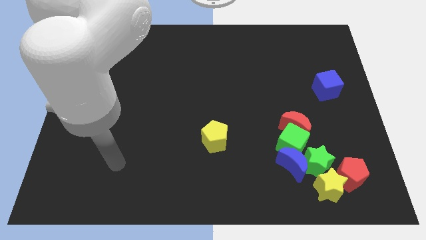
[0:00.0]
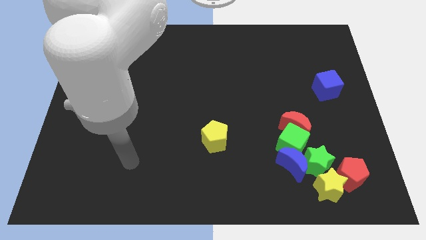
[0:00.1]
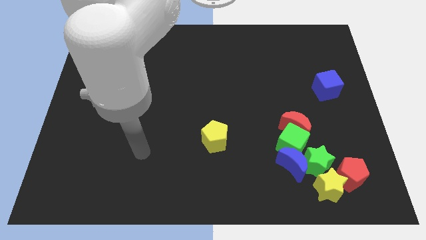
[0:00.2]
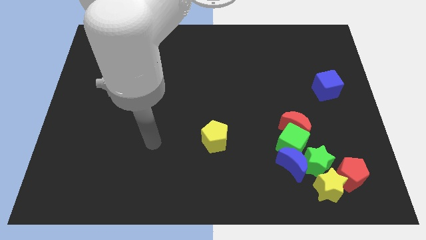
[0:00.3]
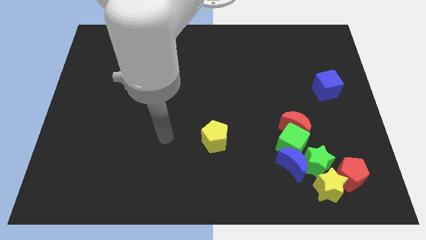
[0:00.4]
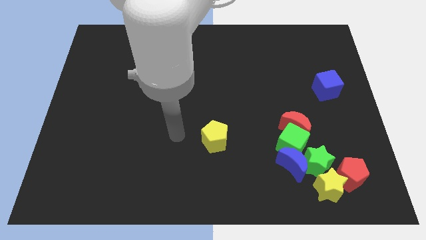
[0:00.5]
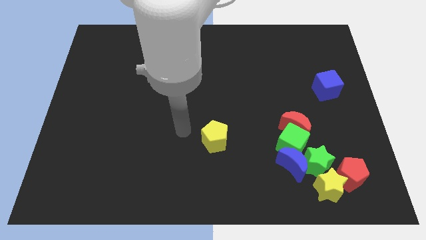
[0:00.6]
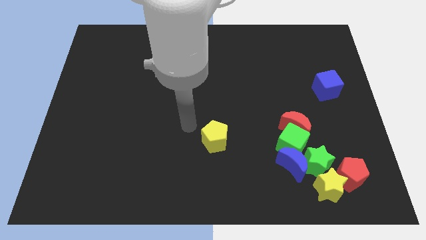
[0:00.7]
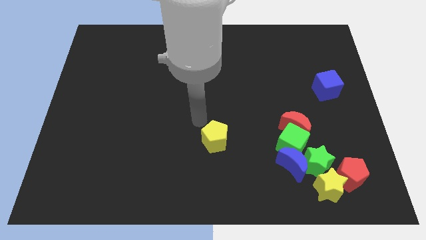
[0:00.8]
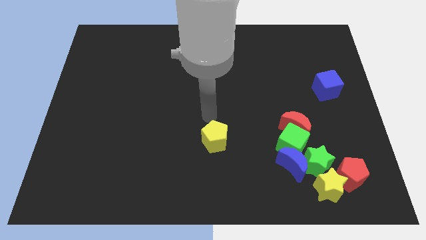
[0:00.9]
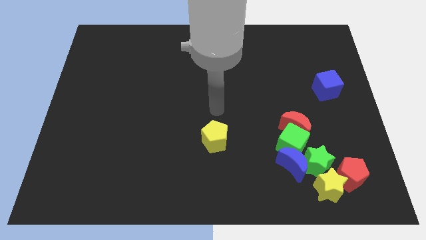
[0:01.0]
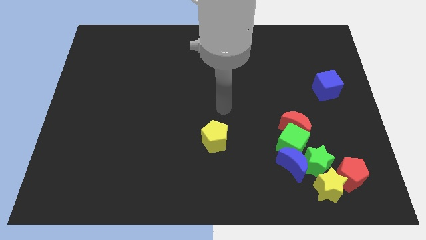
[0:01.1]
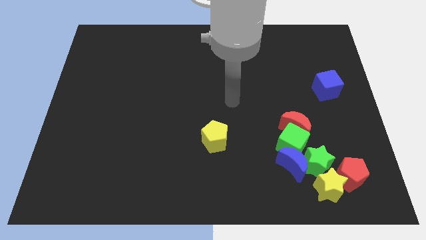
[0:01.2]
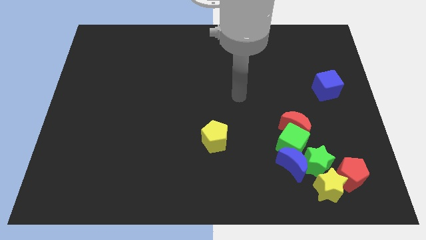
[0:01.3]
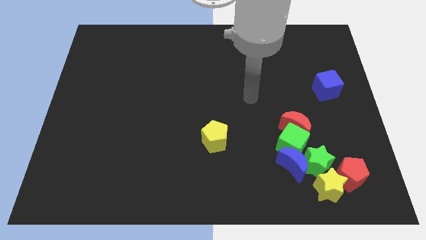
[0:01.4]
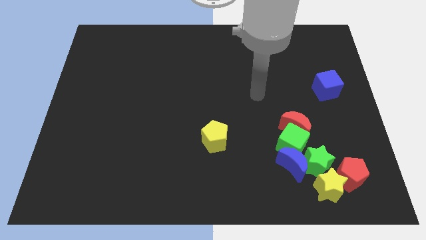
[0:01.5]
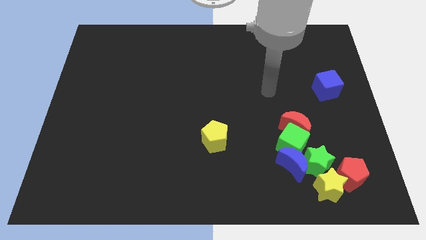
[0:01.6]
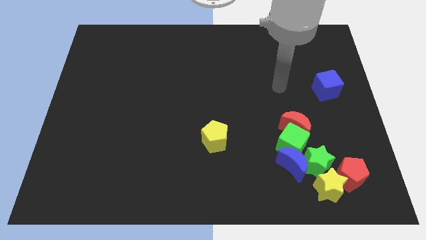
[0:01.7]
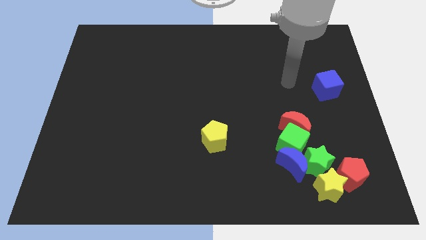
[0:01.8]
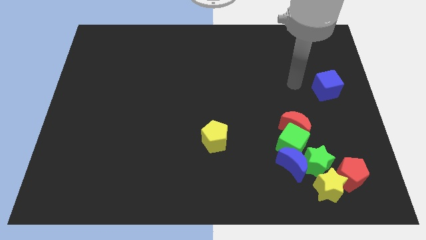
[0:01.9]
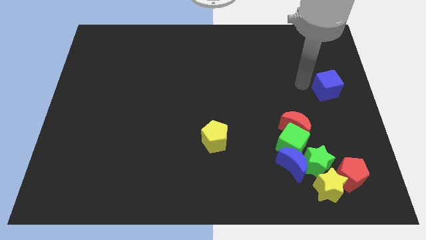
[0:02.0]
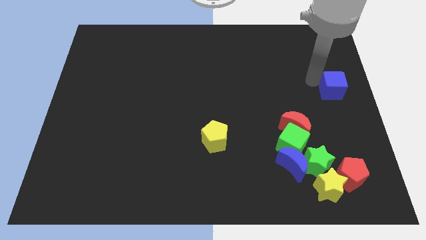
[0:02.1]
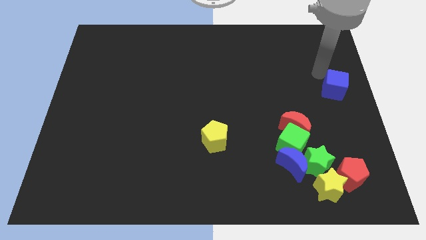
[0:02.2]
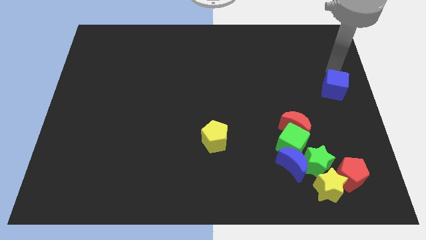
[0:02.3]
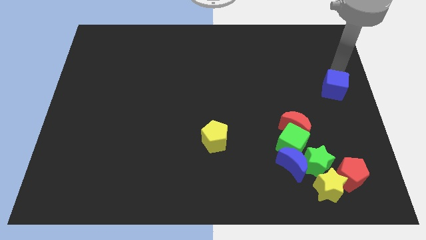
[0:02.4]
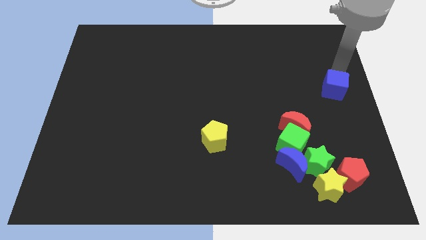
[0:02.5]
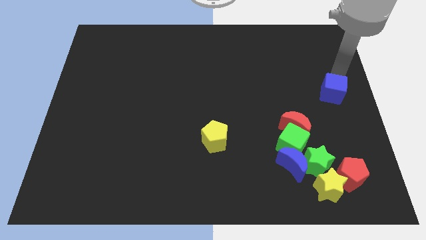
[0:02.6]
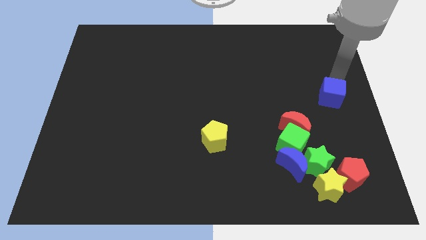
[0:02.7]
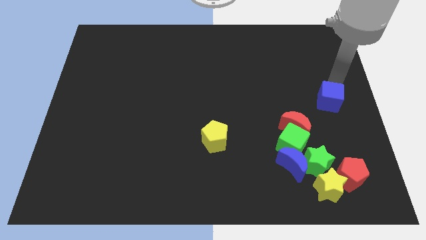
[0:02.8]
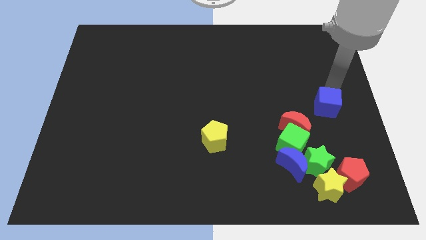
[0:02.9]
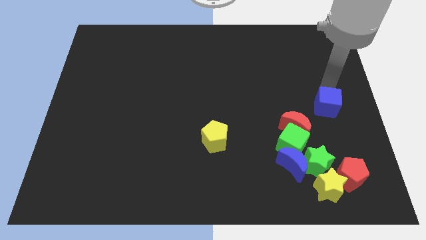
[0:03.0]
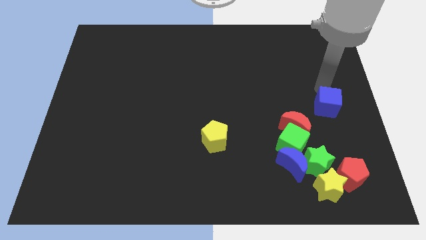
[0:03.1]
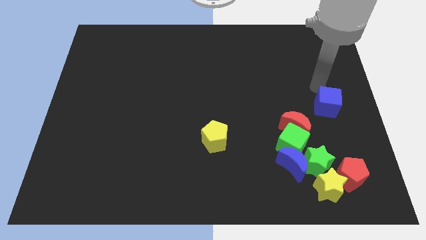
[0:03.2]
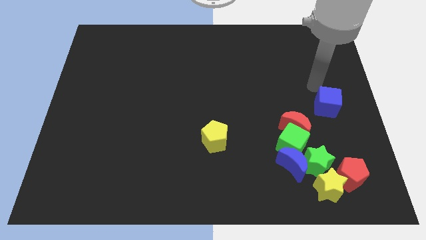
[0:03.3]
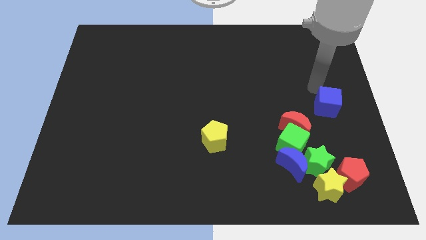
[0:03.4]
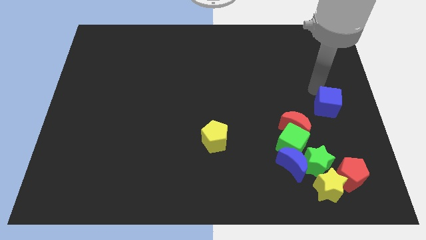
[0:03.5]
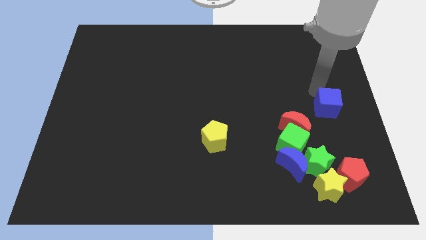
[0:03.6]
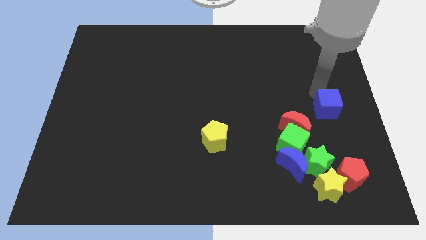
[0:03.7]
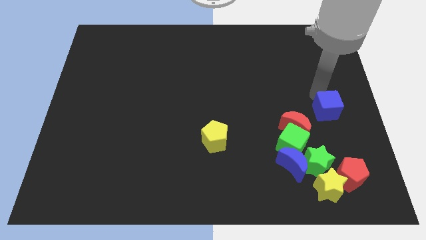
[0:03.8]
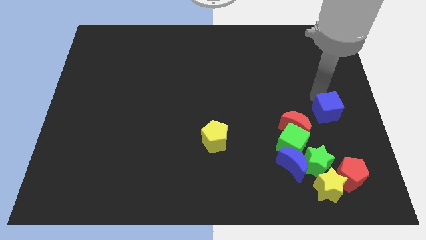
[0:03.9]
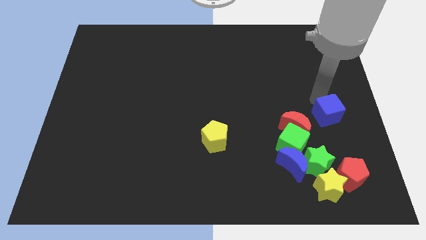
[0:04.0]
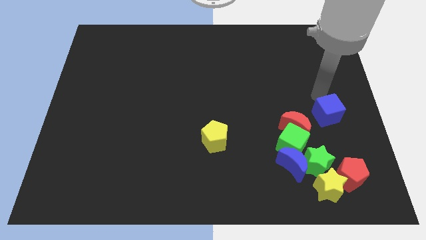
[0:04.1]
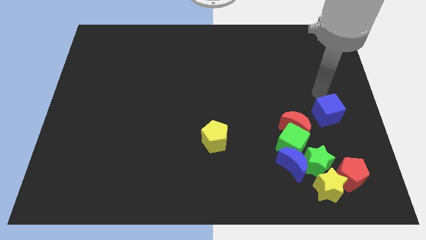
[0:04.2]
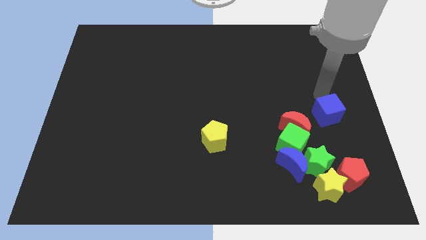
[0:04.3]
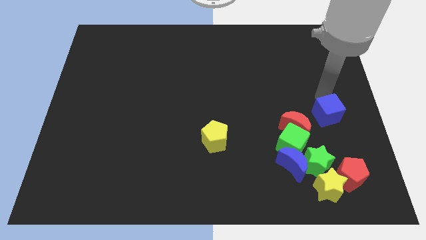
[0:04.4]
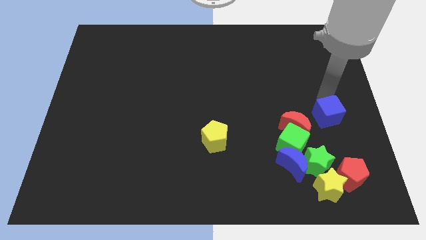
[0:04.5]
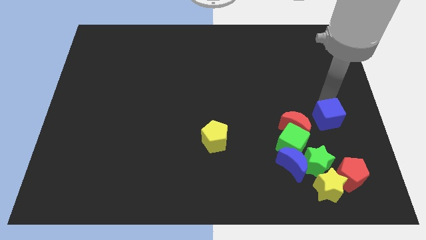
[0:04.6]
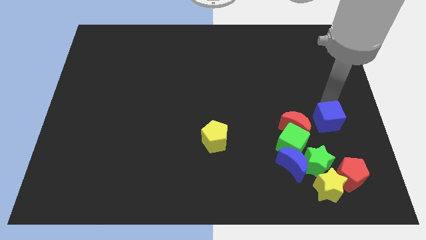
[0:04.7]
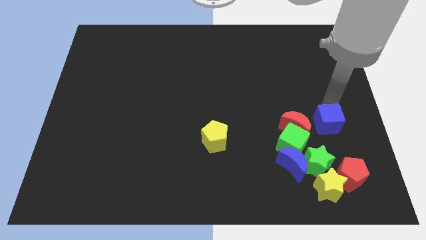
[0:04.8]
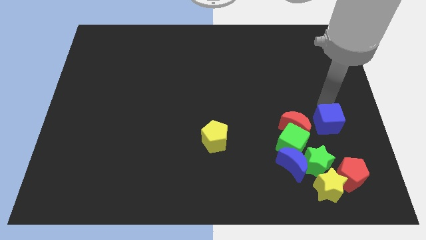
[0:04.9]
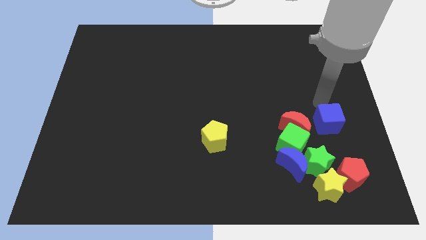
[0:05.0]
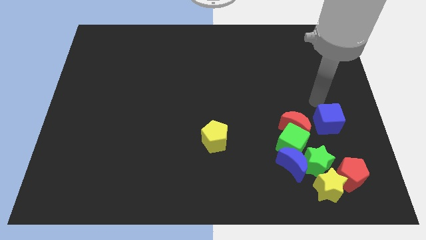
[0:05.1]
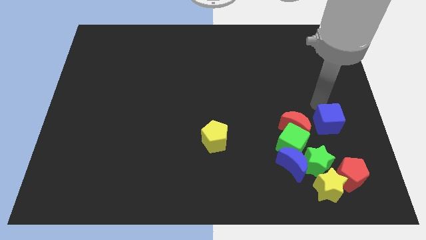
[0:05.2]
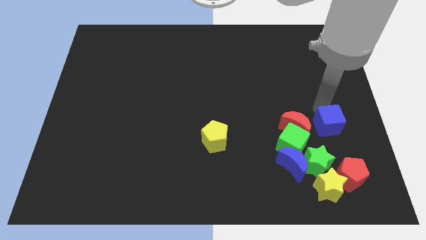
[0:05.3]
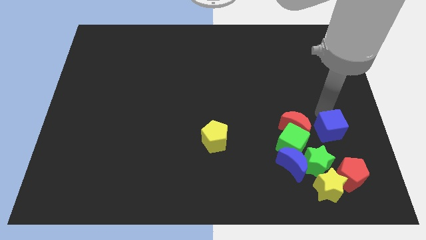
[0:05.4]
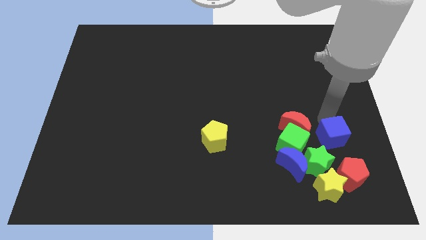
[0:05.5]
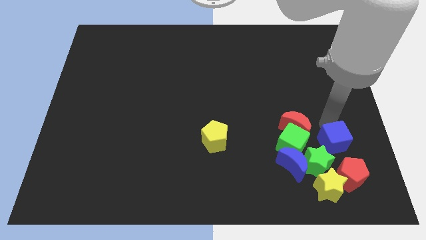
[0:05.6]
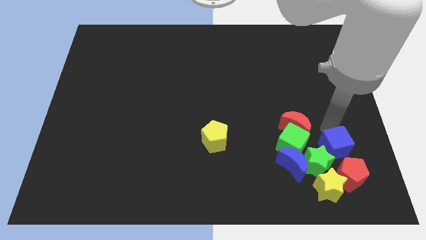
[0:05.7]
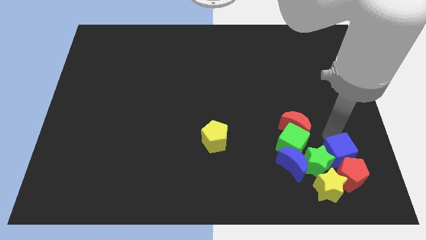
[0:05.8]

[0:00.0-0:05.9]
slide the blue cube towards the red pentagon

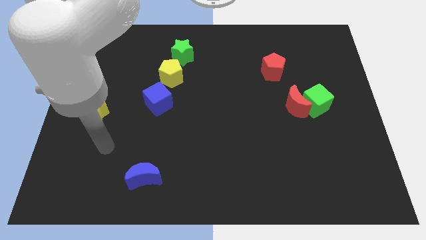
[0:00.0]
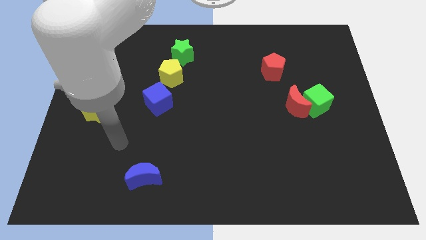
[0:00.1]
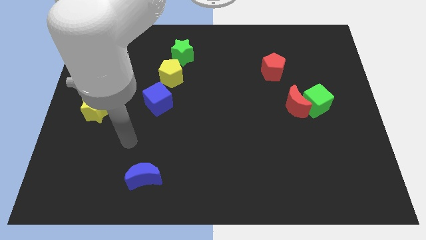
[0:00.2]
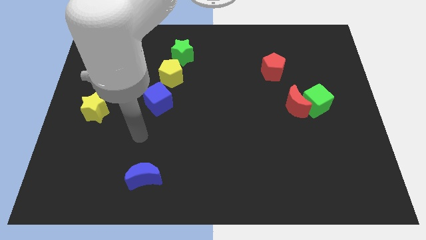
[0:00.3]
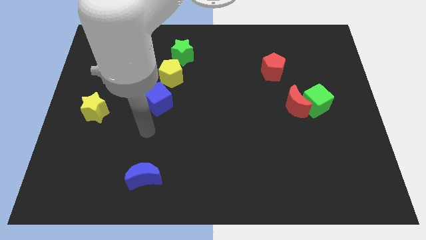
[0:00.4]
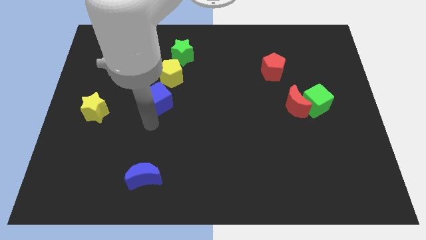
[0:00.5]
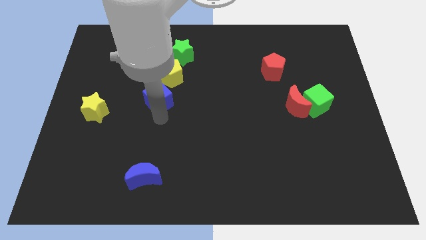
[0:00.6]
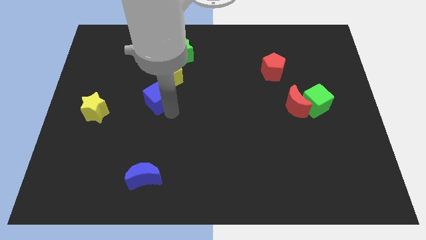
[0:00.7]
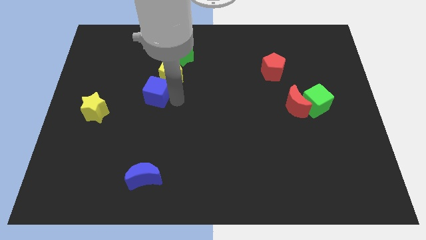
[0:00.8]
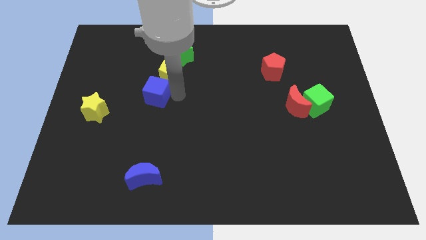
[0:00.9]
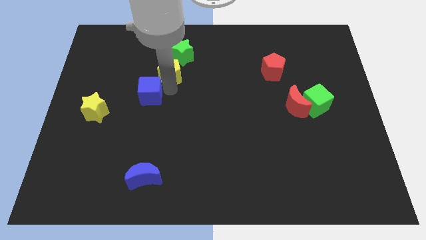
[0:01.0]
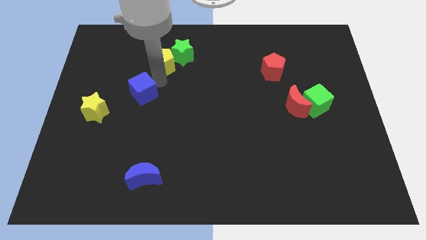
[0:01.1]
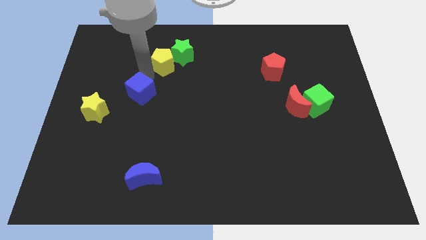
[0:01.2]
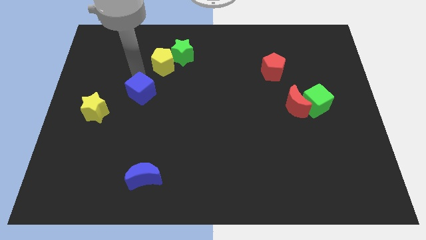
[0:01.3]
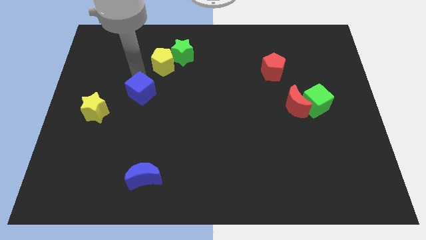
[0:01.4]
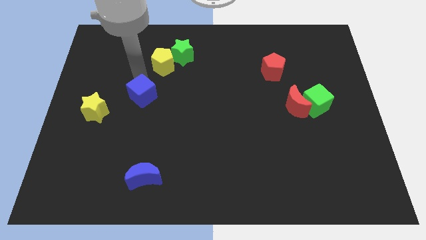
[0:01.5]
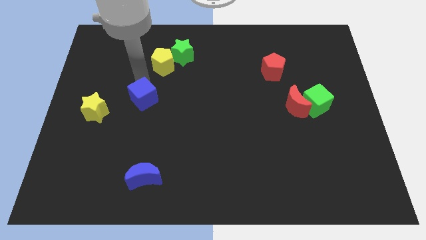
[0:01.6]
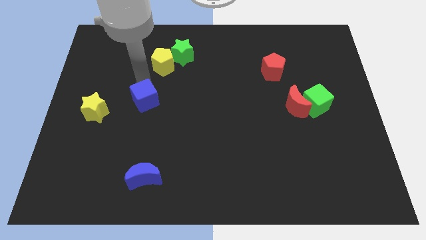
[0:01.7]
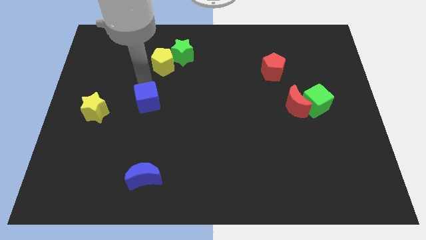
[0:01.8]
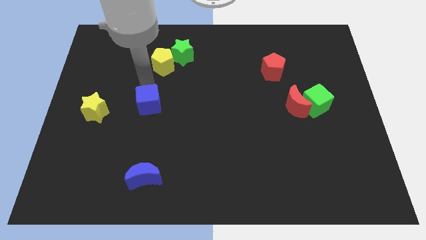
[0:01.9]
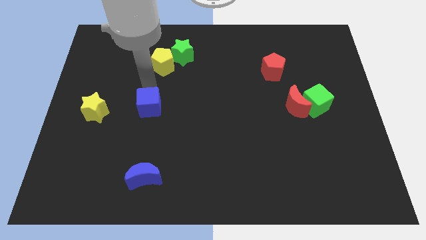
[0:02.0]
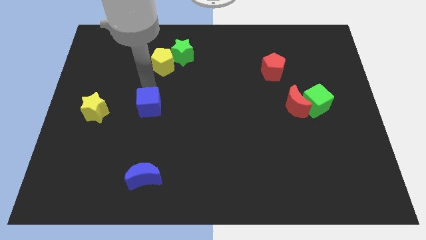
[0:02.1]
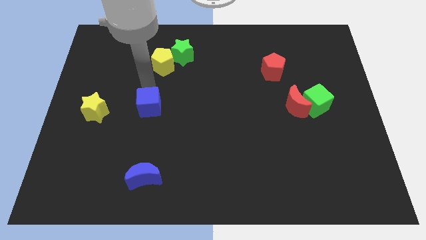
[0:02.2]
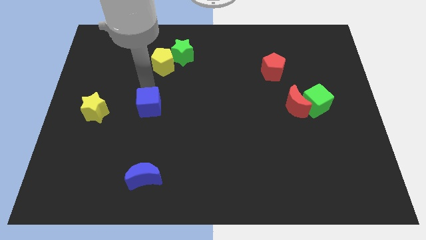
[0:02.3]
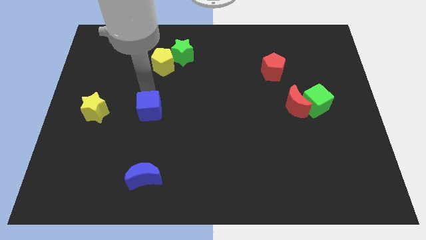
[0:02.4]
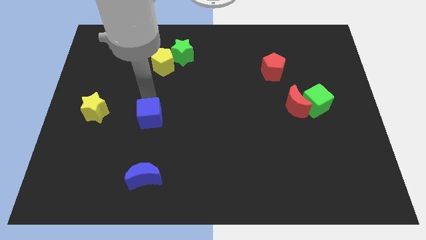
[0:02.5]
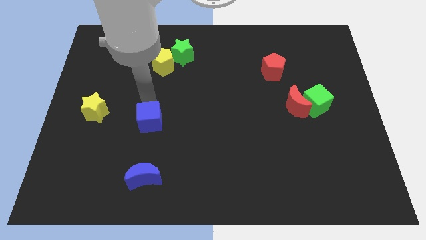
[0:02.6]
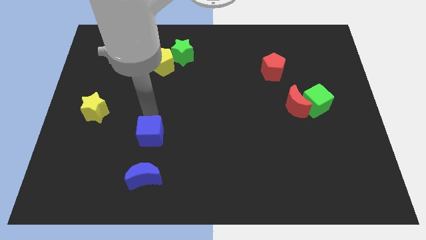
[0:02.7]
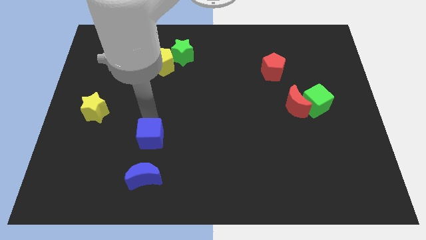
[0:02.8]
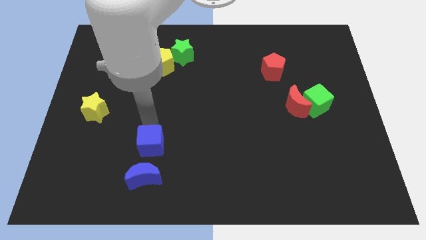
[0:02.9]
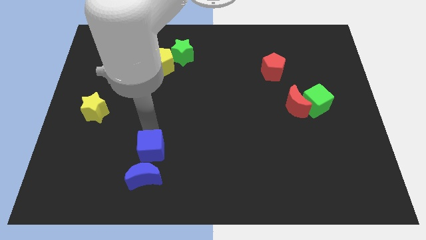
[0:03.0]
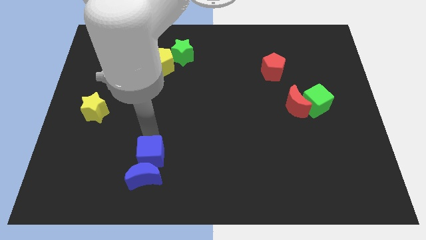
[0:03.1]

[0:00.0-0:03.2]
push the blue cube close to the blue moon
